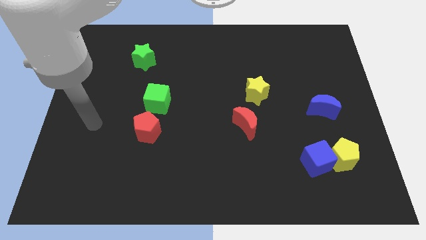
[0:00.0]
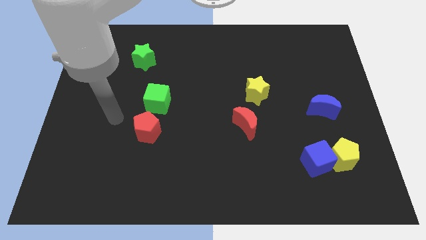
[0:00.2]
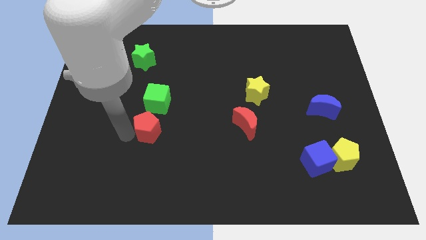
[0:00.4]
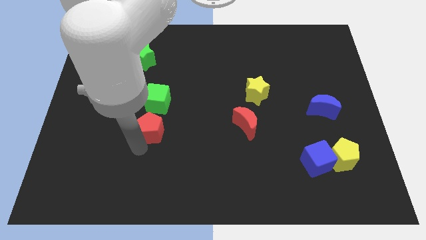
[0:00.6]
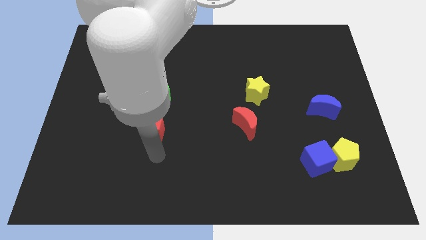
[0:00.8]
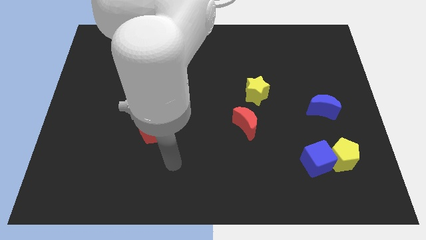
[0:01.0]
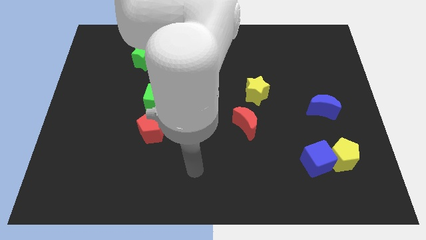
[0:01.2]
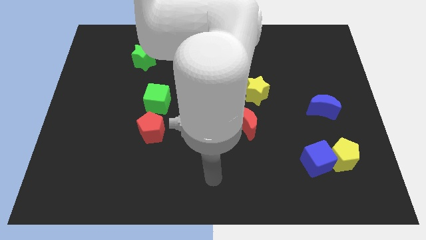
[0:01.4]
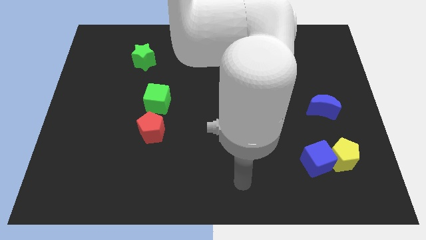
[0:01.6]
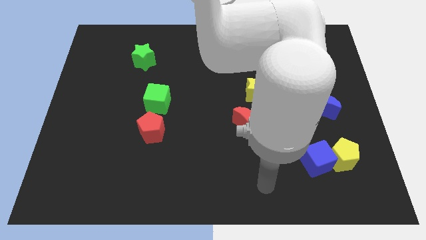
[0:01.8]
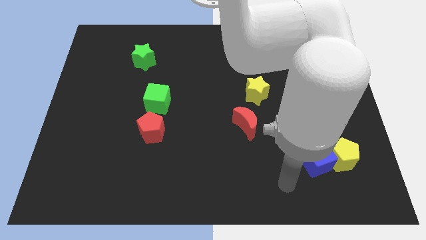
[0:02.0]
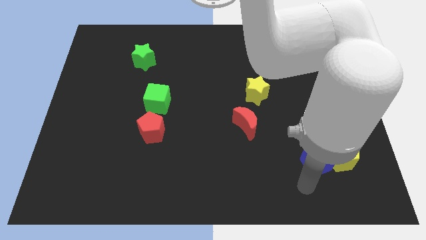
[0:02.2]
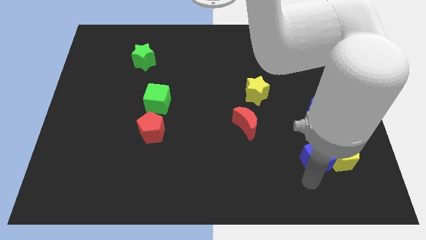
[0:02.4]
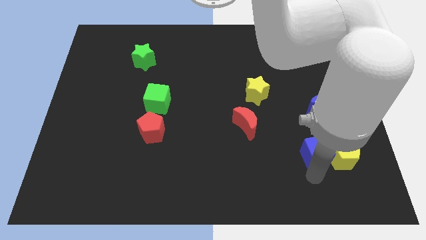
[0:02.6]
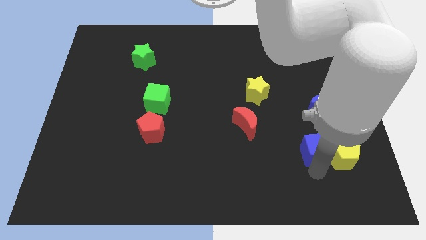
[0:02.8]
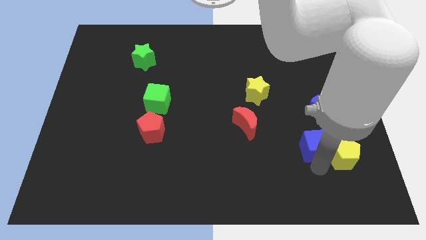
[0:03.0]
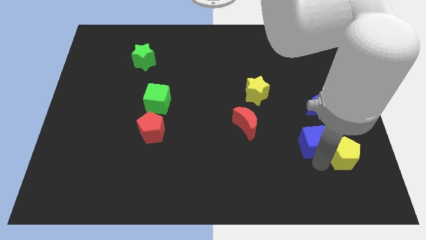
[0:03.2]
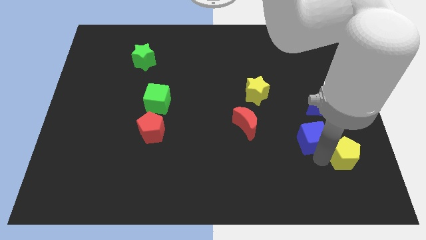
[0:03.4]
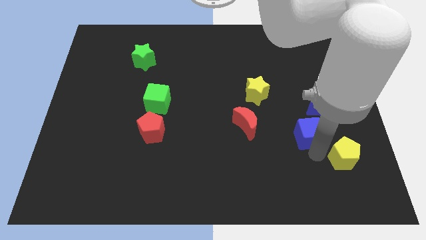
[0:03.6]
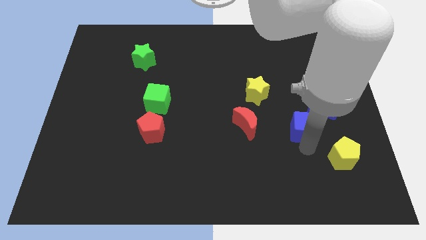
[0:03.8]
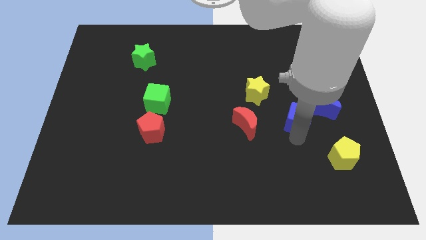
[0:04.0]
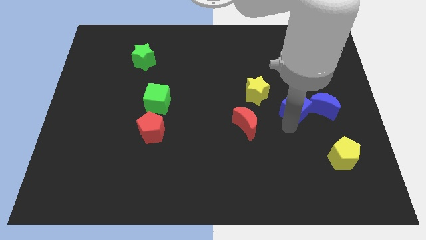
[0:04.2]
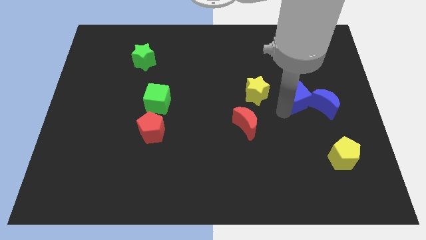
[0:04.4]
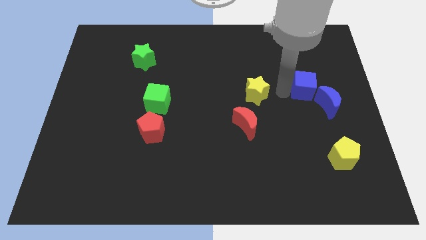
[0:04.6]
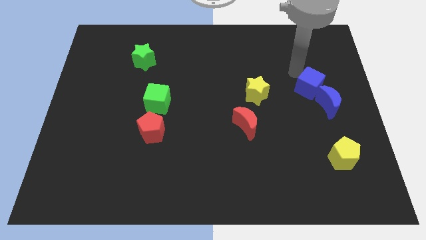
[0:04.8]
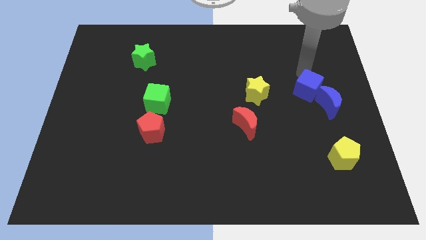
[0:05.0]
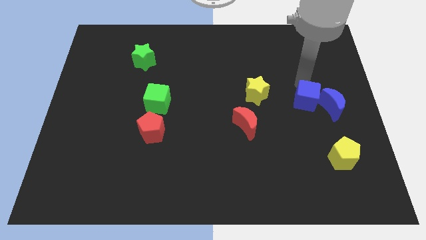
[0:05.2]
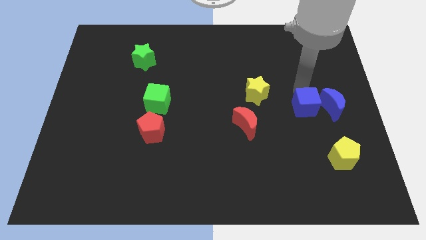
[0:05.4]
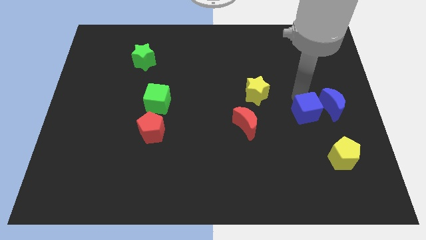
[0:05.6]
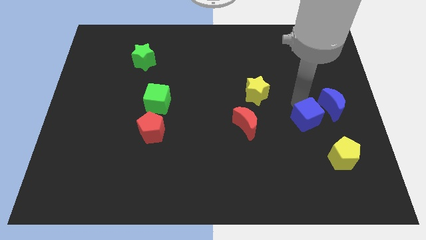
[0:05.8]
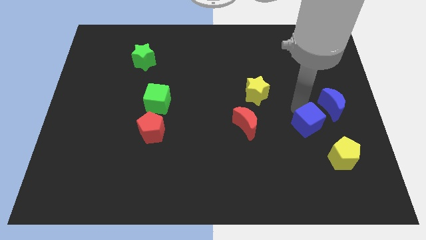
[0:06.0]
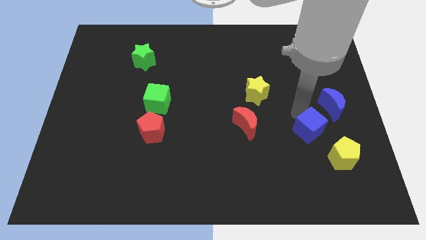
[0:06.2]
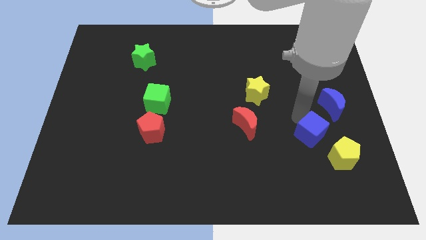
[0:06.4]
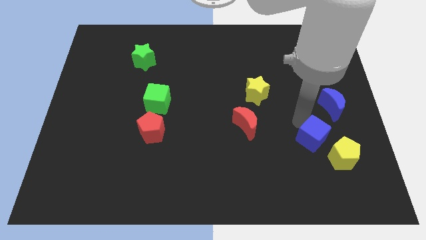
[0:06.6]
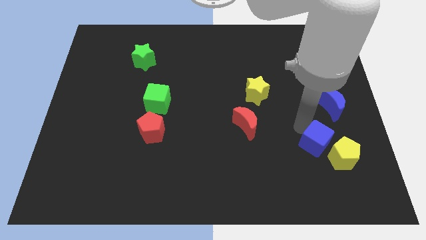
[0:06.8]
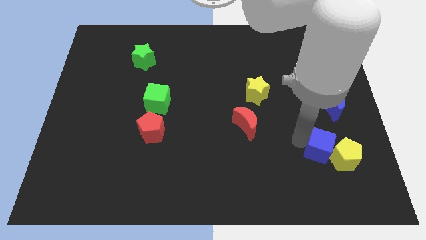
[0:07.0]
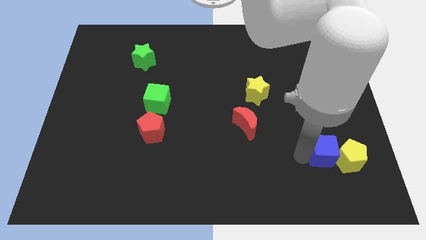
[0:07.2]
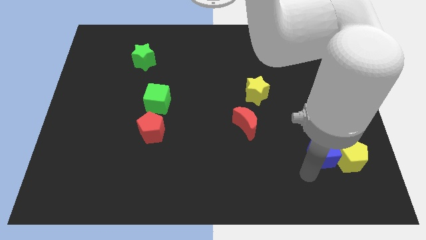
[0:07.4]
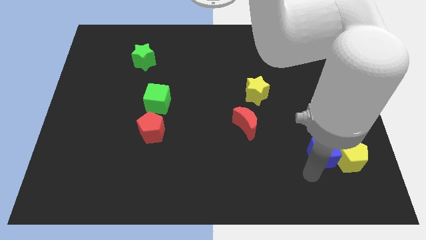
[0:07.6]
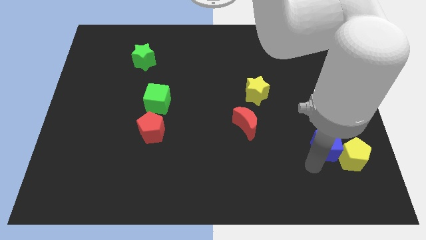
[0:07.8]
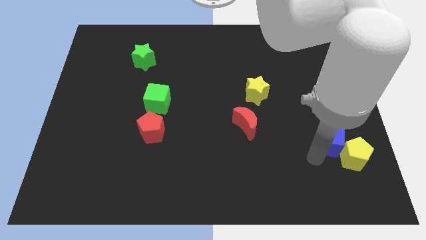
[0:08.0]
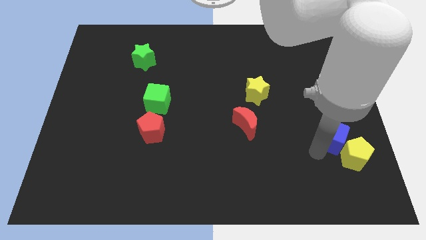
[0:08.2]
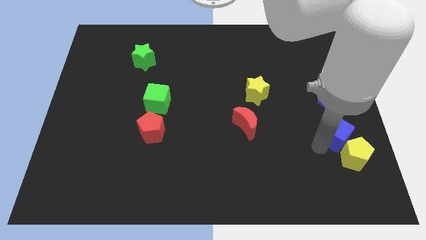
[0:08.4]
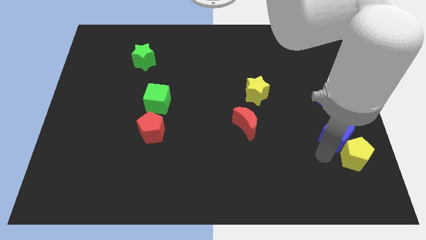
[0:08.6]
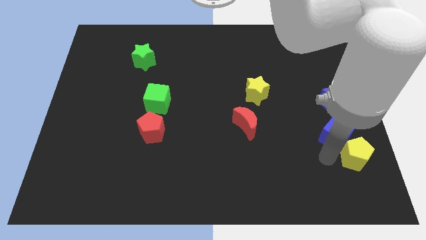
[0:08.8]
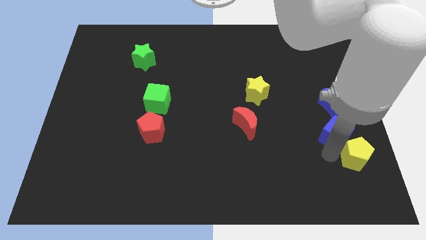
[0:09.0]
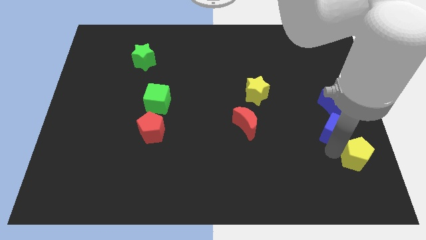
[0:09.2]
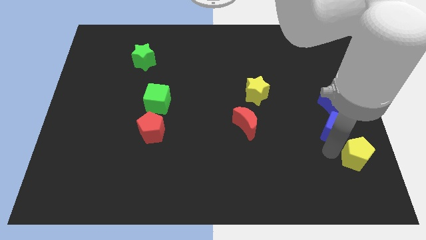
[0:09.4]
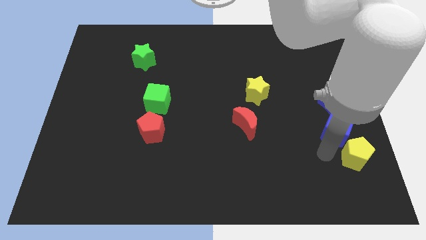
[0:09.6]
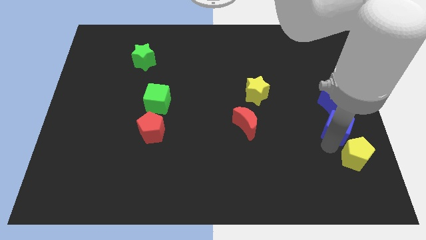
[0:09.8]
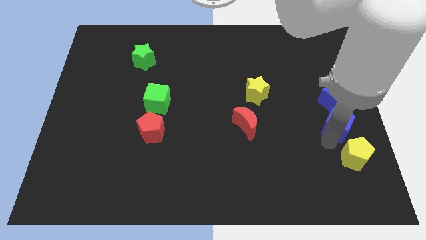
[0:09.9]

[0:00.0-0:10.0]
push the blue cube to the center right

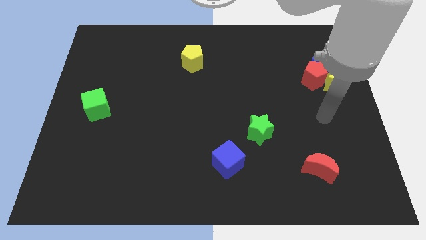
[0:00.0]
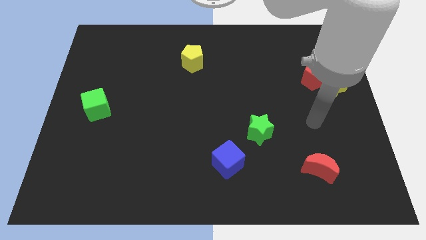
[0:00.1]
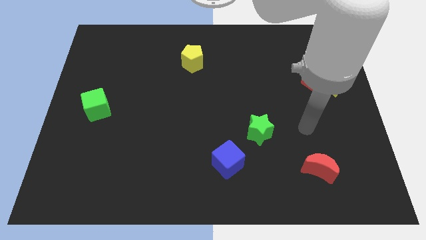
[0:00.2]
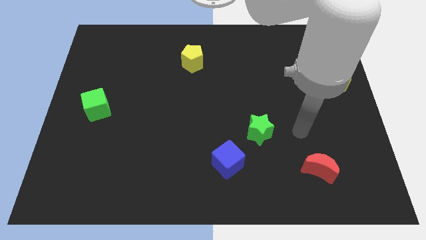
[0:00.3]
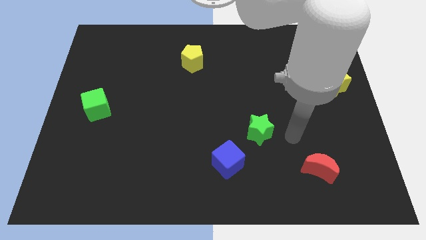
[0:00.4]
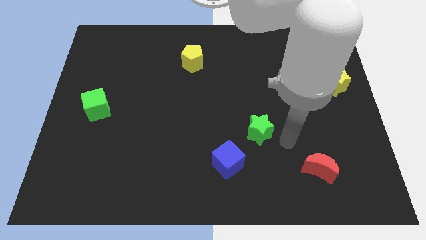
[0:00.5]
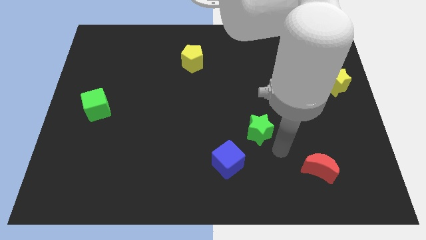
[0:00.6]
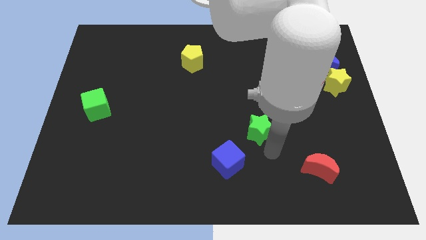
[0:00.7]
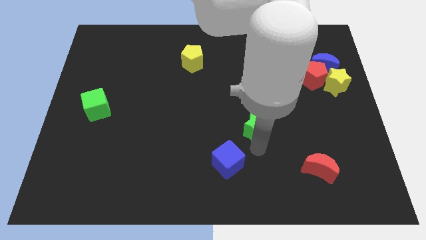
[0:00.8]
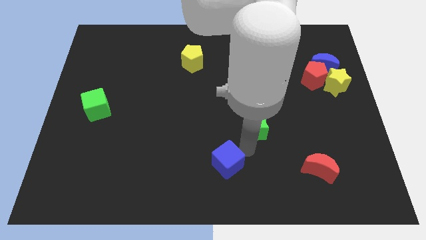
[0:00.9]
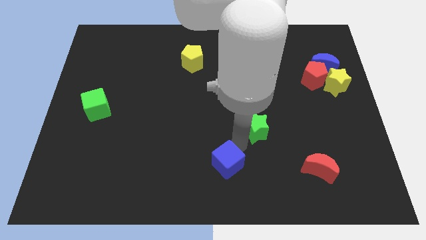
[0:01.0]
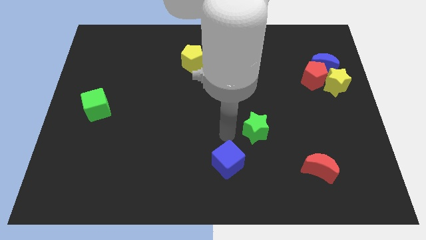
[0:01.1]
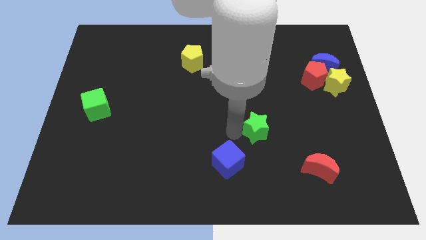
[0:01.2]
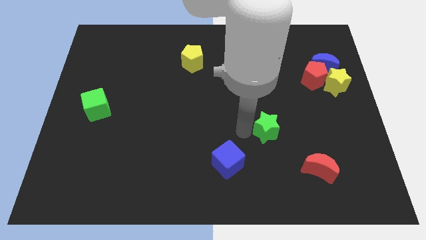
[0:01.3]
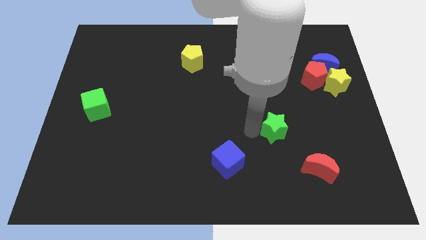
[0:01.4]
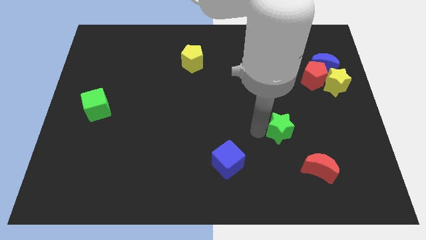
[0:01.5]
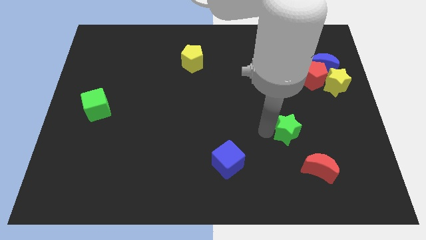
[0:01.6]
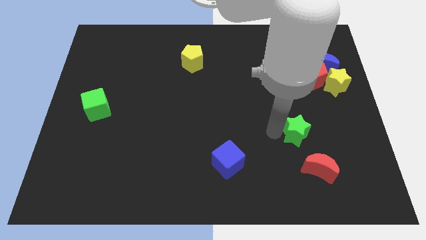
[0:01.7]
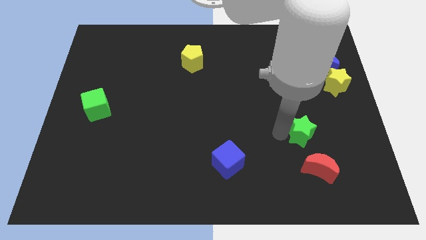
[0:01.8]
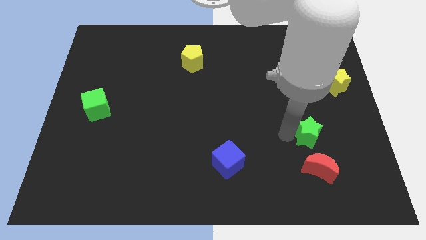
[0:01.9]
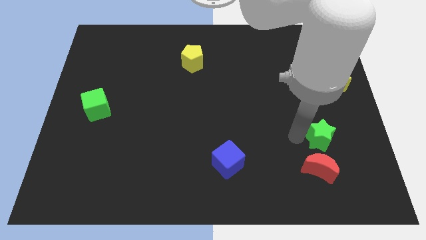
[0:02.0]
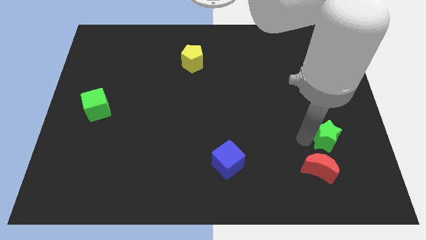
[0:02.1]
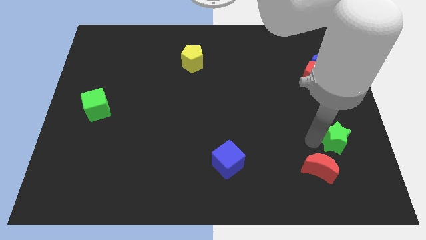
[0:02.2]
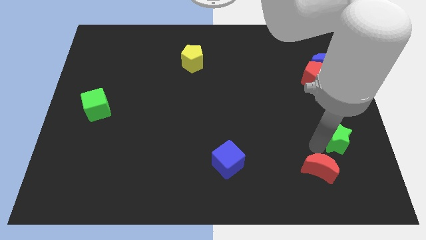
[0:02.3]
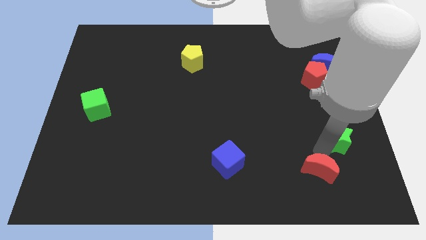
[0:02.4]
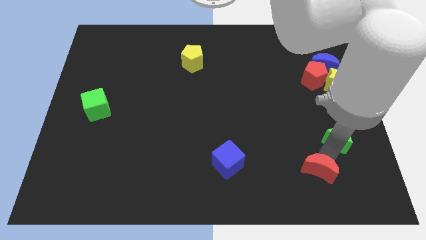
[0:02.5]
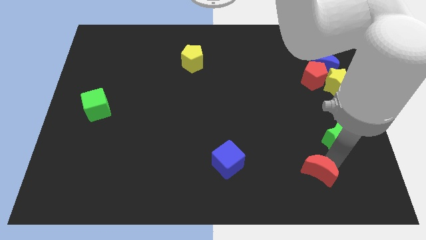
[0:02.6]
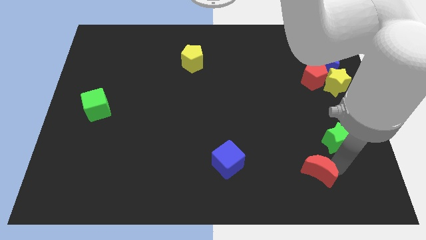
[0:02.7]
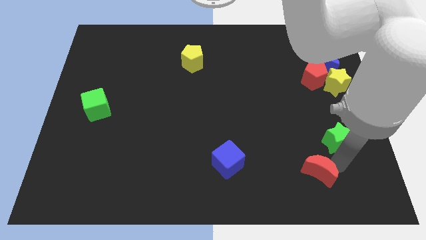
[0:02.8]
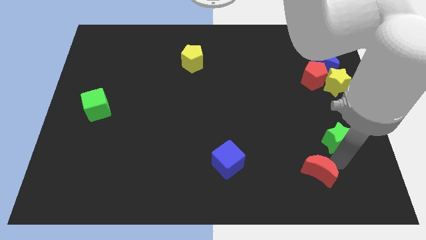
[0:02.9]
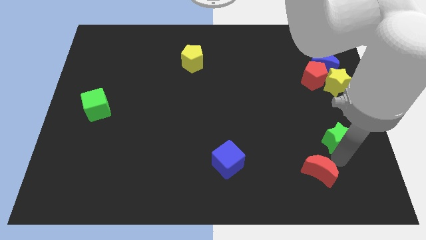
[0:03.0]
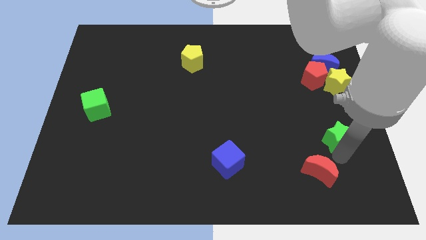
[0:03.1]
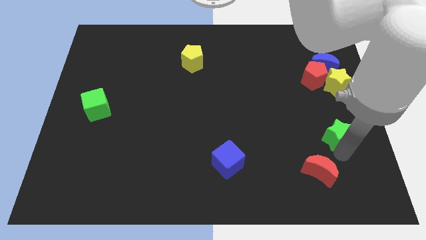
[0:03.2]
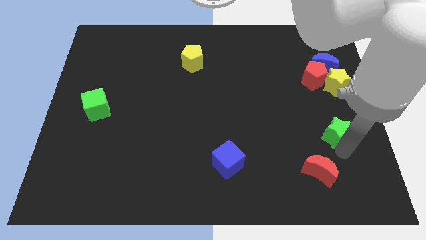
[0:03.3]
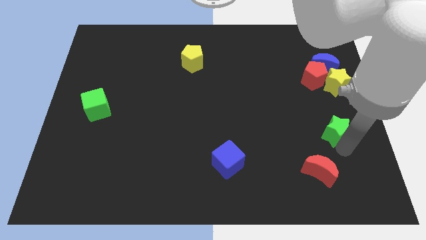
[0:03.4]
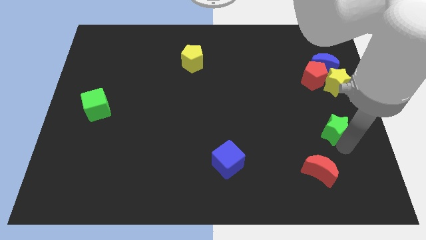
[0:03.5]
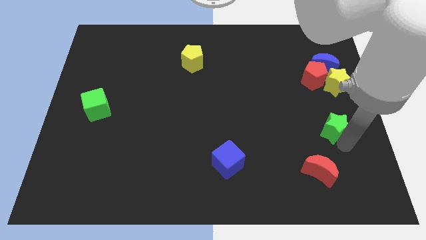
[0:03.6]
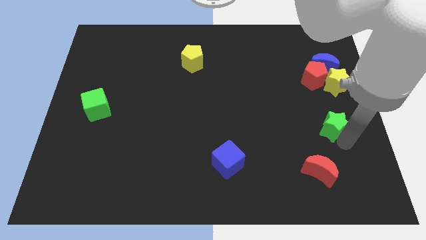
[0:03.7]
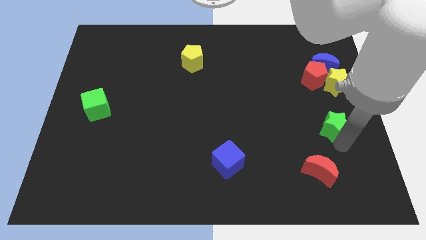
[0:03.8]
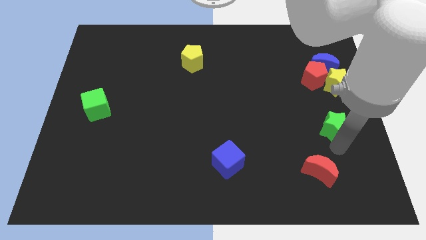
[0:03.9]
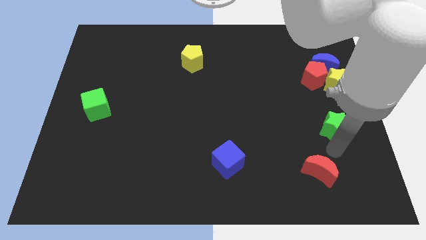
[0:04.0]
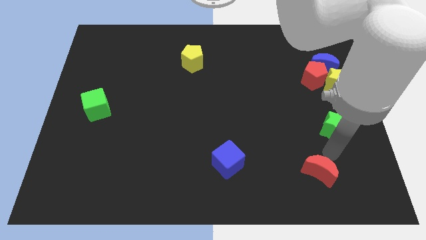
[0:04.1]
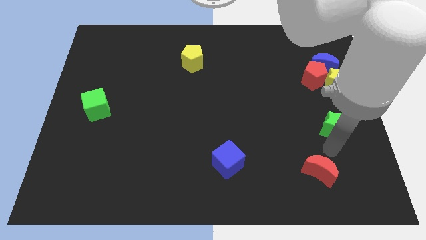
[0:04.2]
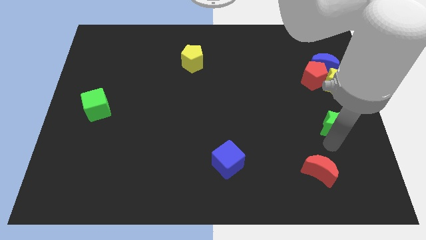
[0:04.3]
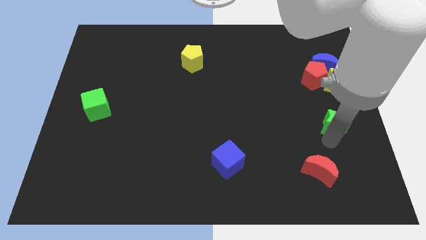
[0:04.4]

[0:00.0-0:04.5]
slide the green star to the right side
